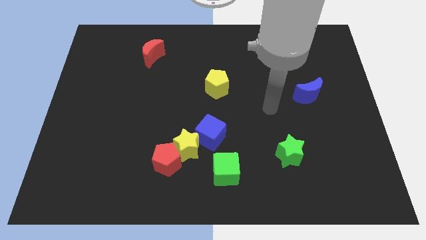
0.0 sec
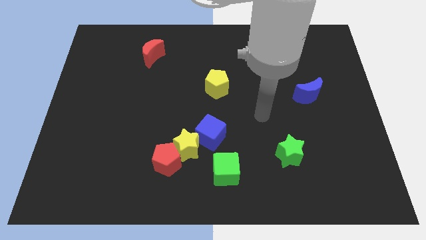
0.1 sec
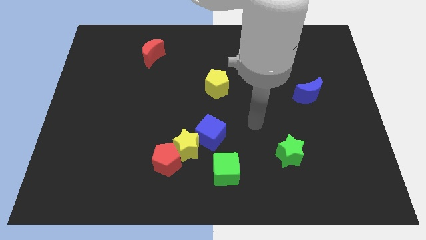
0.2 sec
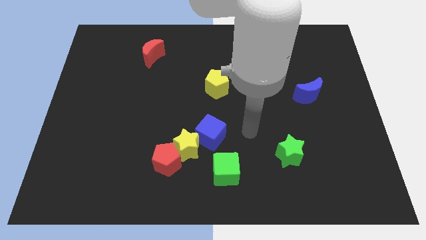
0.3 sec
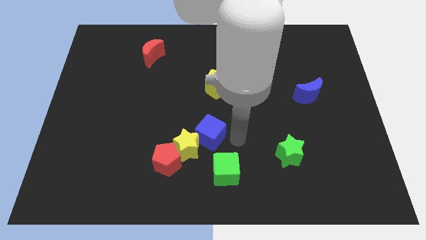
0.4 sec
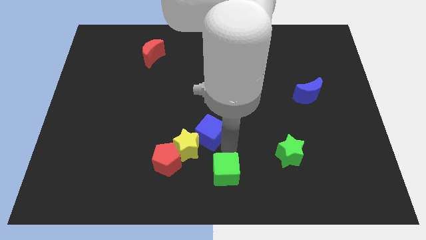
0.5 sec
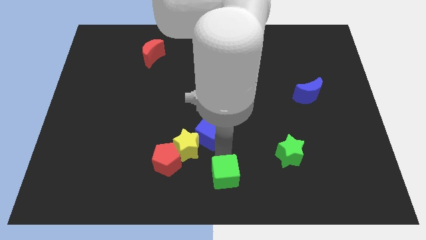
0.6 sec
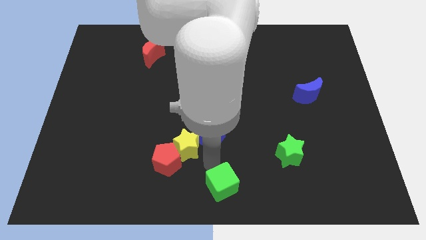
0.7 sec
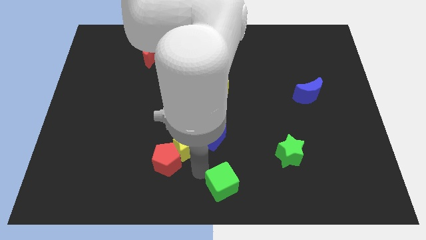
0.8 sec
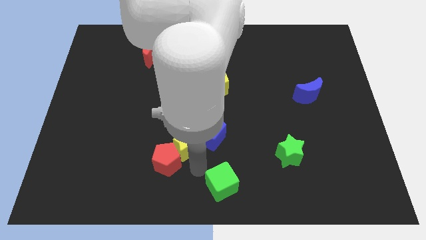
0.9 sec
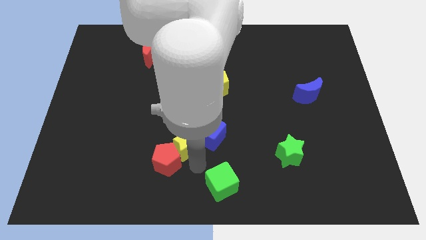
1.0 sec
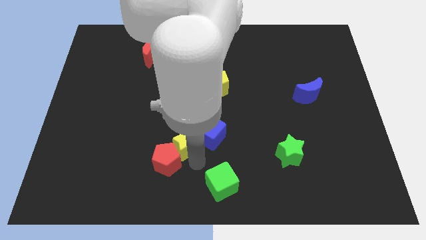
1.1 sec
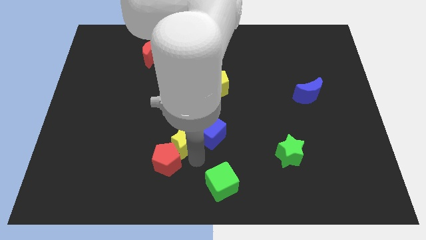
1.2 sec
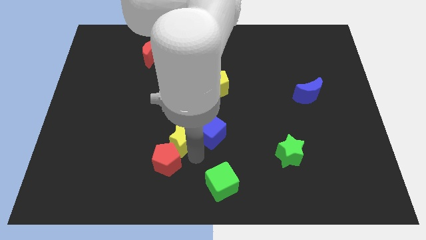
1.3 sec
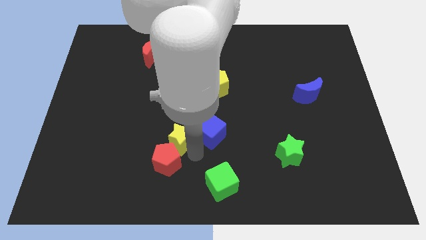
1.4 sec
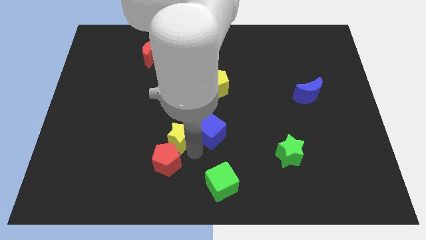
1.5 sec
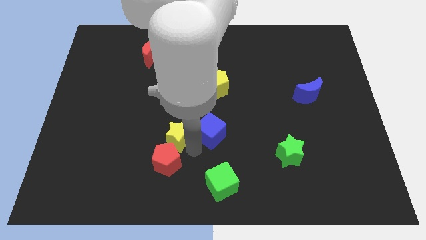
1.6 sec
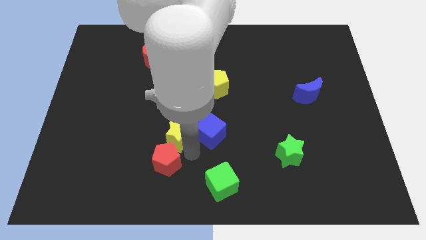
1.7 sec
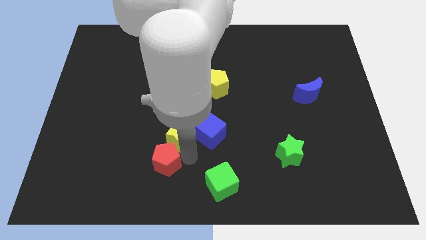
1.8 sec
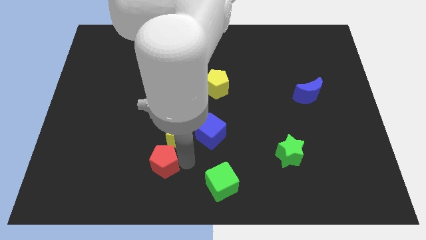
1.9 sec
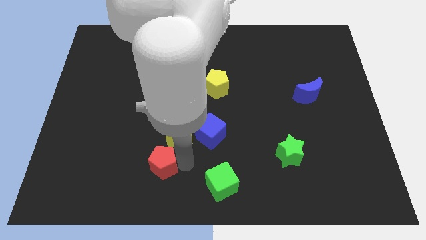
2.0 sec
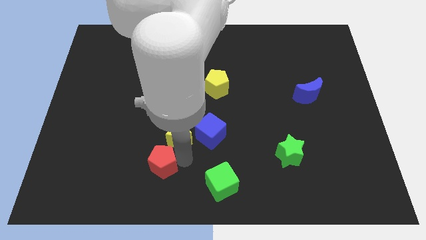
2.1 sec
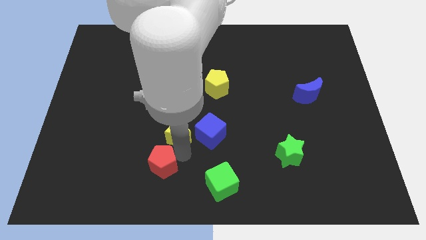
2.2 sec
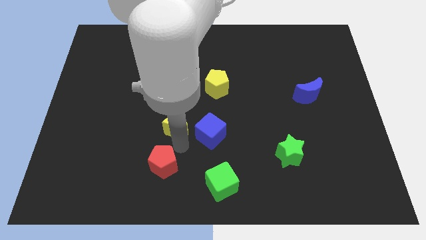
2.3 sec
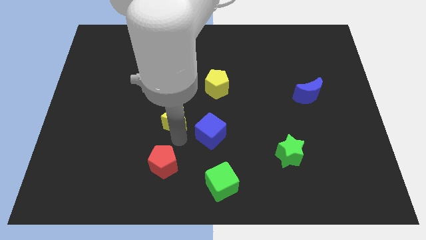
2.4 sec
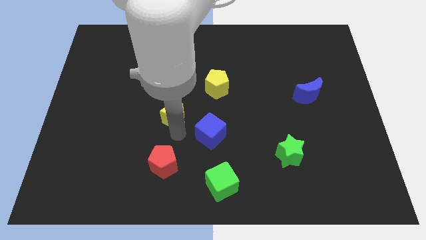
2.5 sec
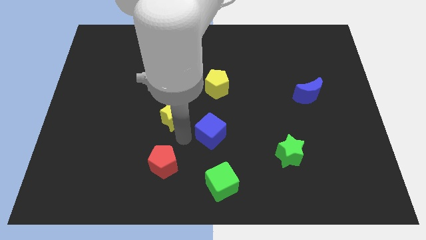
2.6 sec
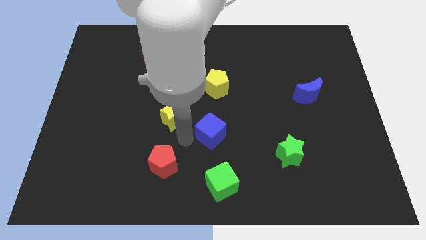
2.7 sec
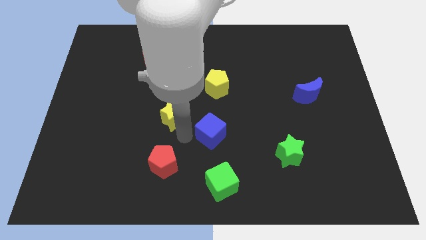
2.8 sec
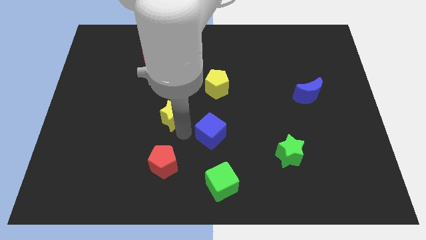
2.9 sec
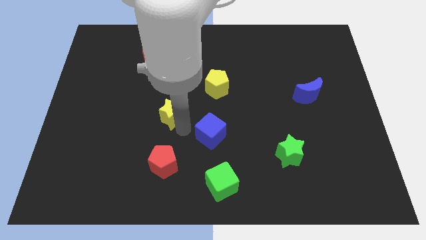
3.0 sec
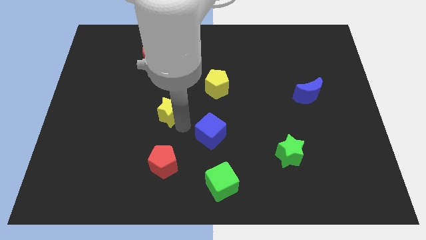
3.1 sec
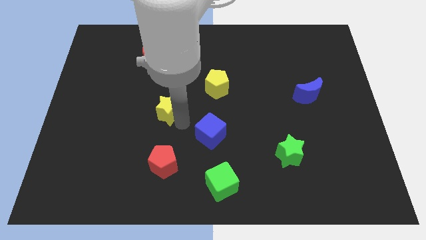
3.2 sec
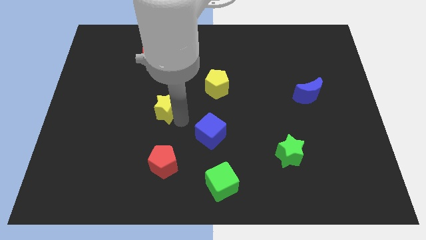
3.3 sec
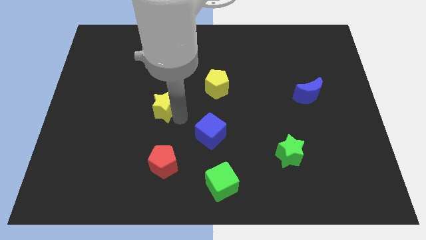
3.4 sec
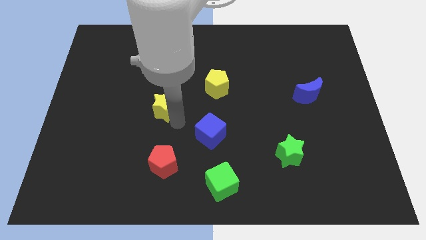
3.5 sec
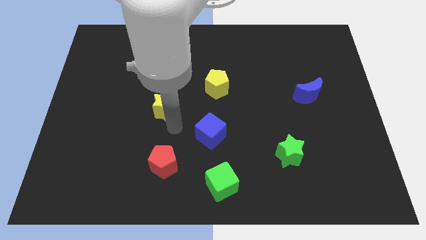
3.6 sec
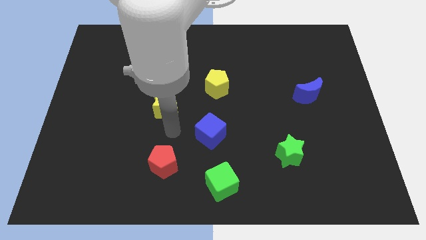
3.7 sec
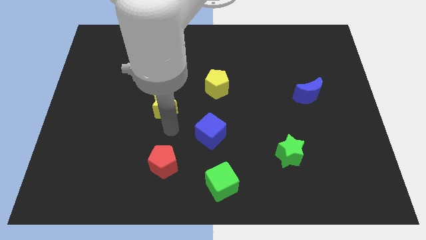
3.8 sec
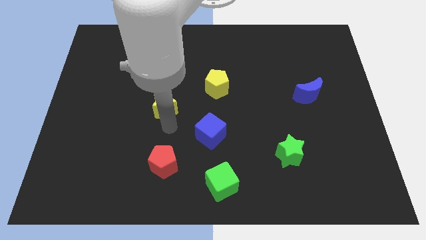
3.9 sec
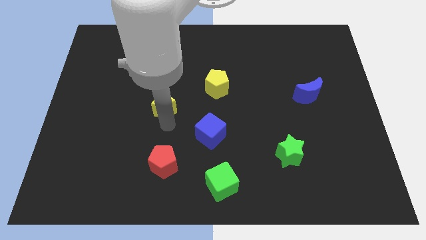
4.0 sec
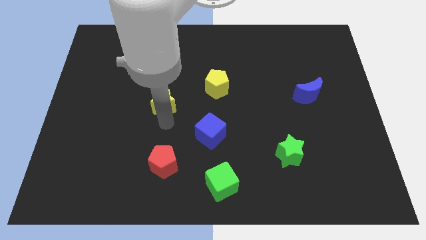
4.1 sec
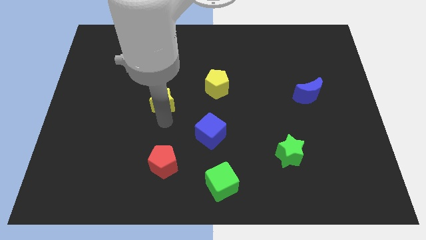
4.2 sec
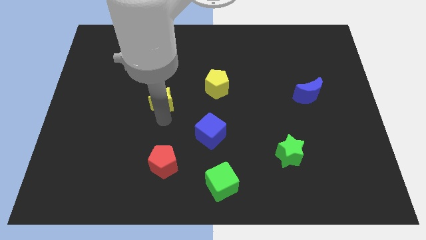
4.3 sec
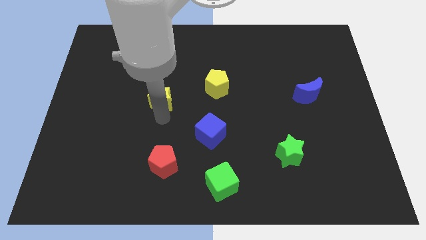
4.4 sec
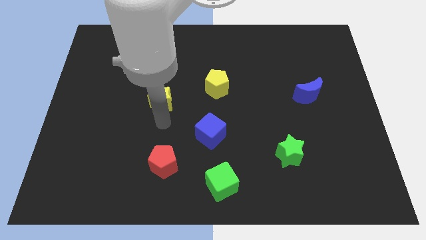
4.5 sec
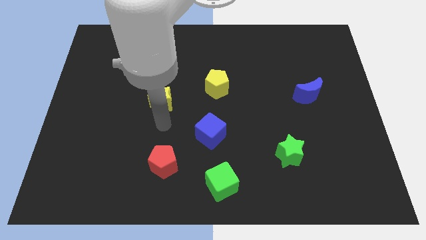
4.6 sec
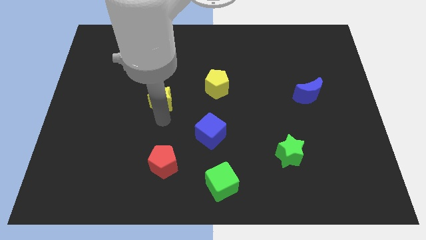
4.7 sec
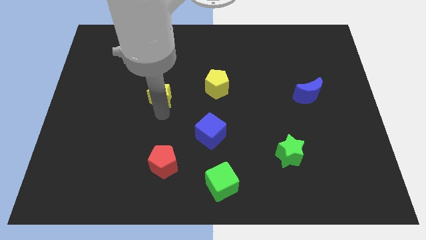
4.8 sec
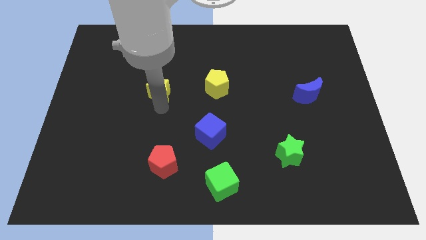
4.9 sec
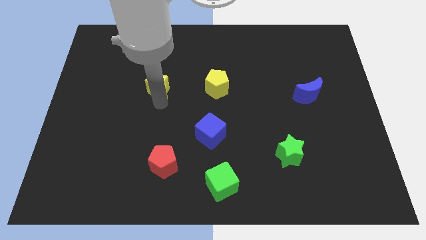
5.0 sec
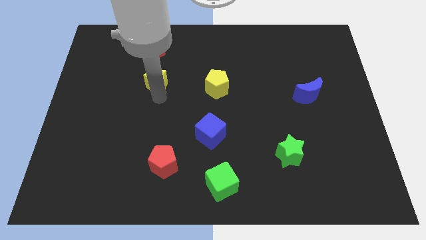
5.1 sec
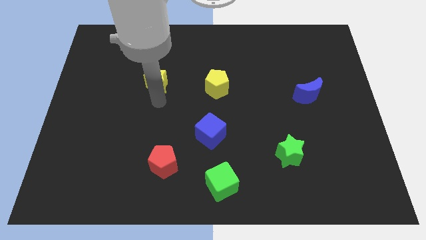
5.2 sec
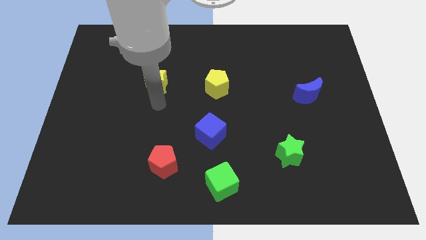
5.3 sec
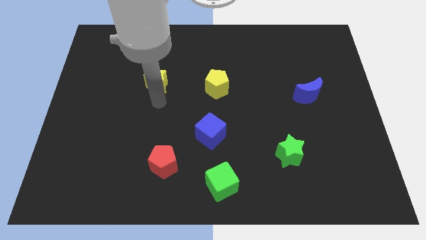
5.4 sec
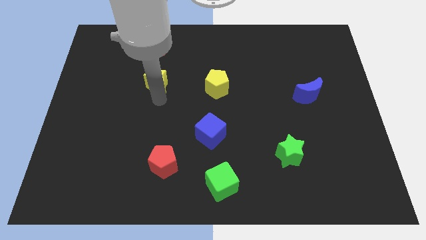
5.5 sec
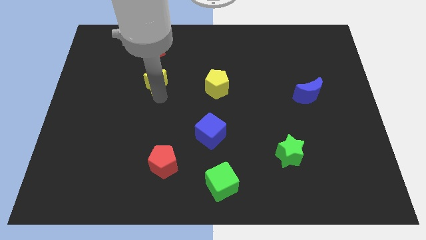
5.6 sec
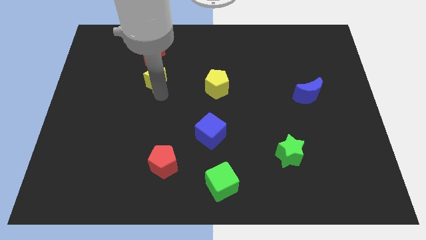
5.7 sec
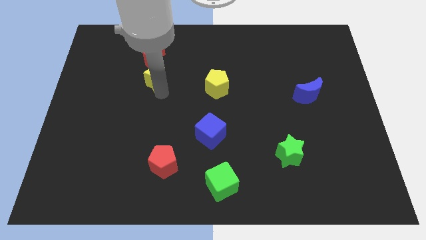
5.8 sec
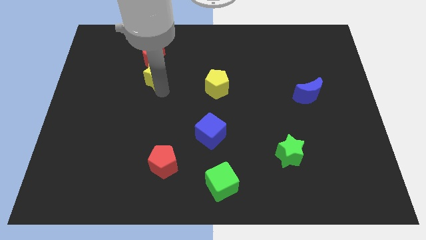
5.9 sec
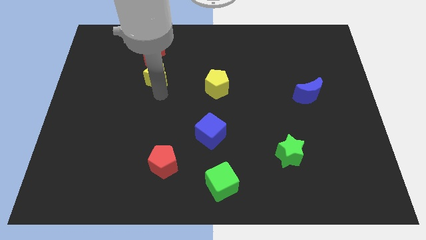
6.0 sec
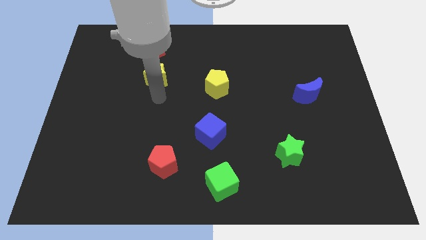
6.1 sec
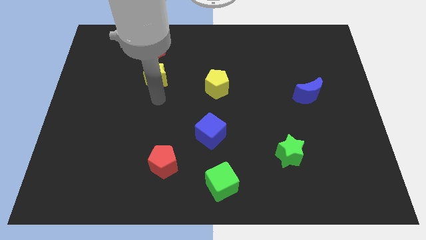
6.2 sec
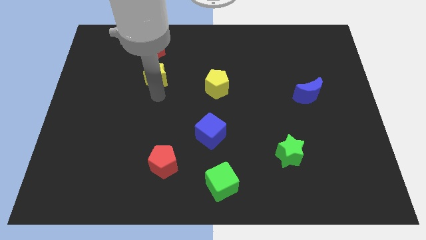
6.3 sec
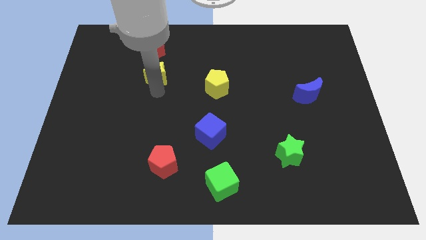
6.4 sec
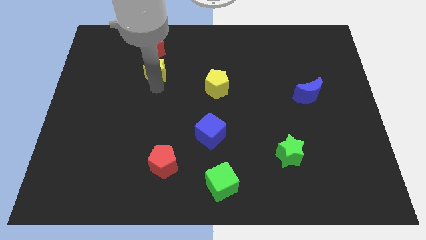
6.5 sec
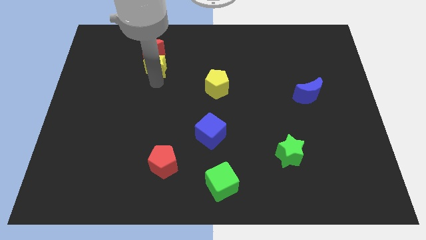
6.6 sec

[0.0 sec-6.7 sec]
move the yellow star close to the red moon
